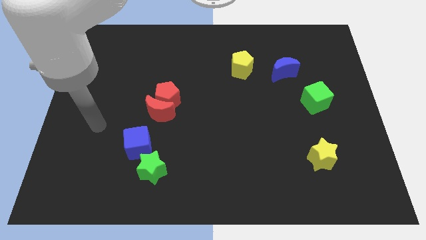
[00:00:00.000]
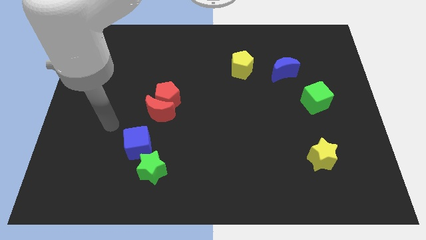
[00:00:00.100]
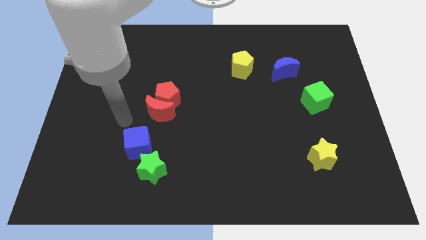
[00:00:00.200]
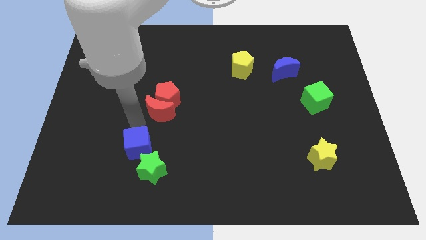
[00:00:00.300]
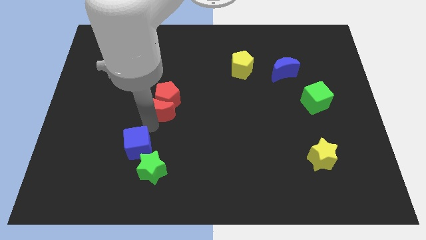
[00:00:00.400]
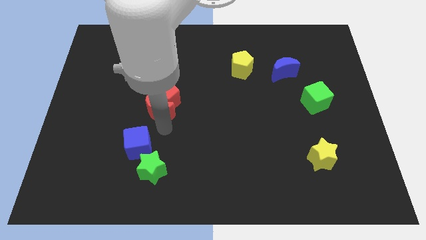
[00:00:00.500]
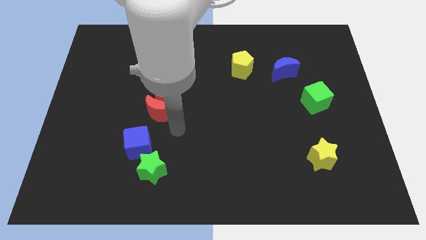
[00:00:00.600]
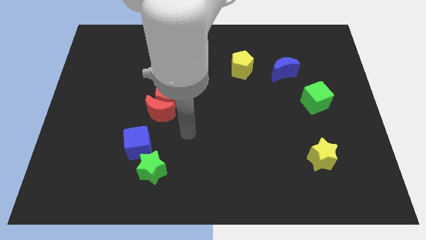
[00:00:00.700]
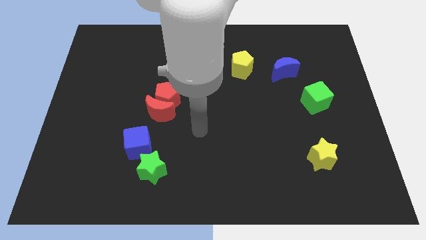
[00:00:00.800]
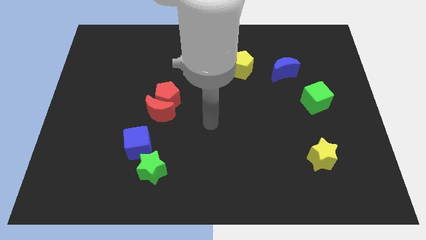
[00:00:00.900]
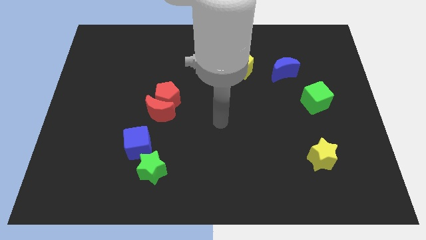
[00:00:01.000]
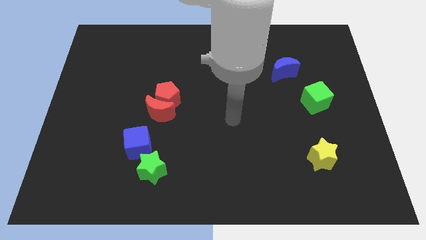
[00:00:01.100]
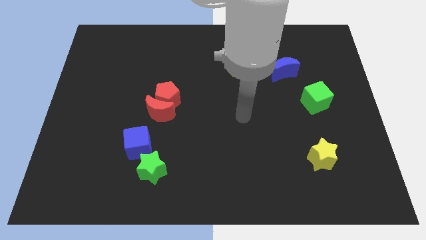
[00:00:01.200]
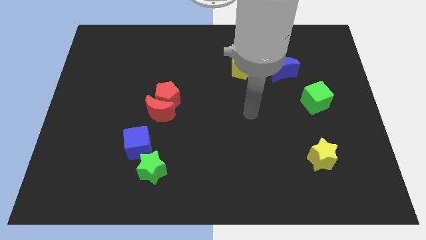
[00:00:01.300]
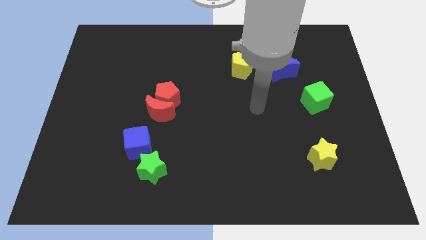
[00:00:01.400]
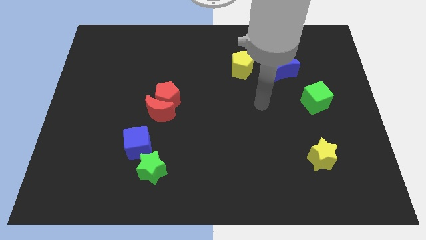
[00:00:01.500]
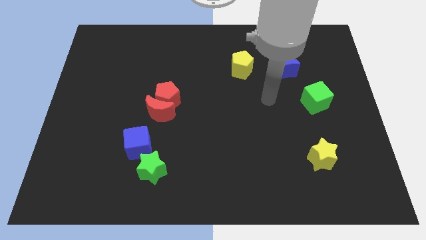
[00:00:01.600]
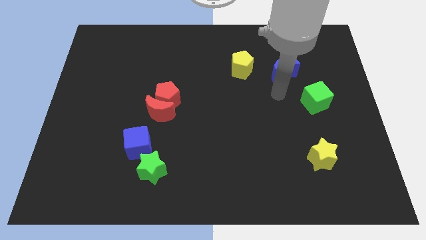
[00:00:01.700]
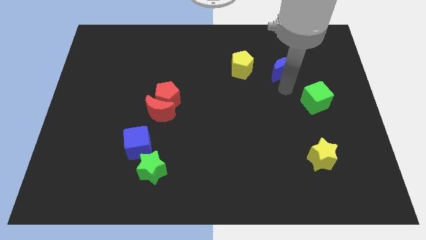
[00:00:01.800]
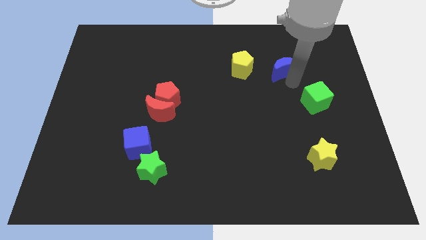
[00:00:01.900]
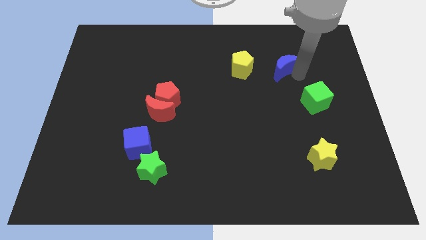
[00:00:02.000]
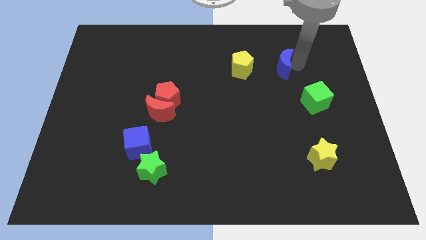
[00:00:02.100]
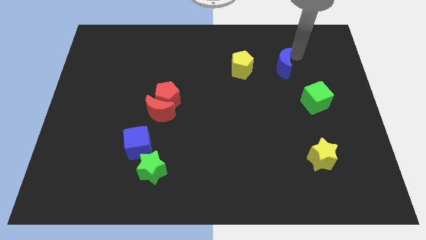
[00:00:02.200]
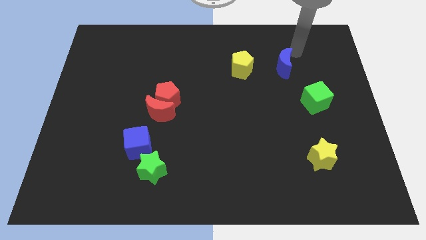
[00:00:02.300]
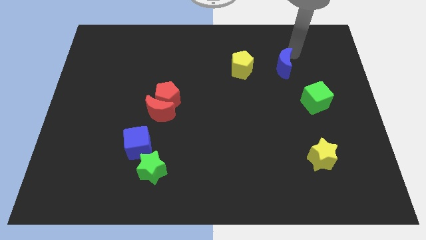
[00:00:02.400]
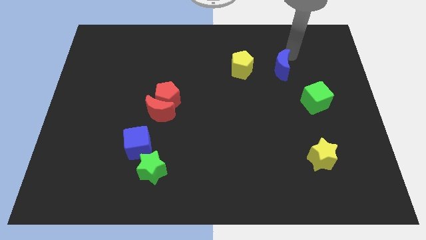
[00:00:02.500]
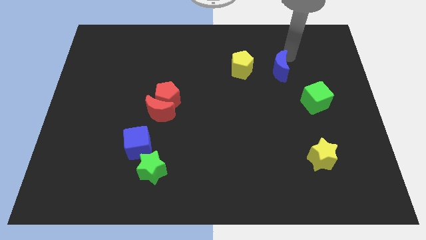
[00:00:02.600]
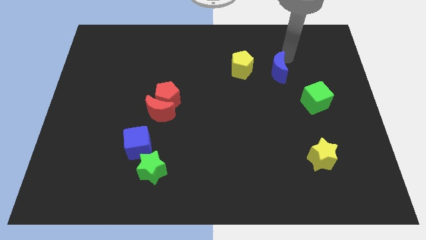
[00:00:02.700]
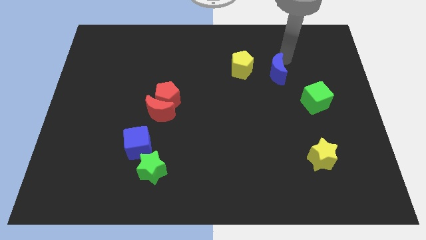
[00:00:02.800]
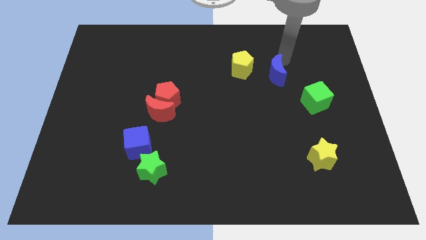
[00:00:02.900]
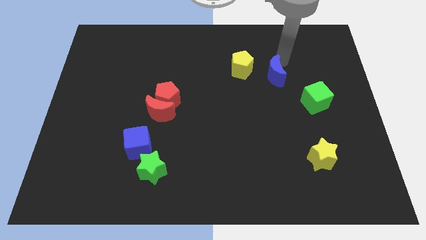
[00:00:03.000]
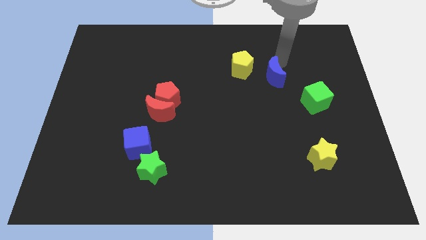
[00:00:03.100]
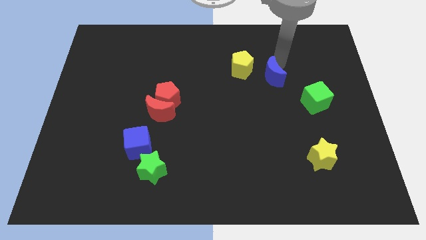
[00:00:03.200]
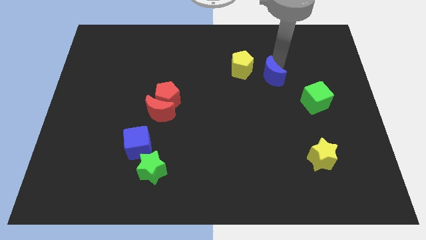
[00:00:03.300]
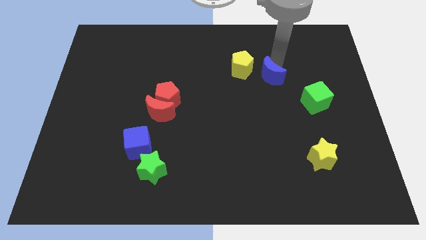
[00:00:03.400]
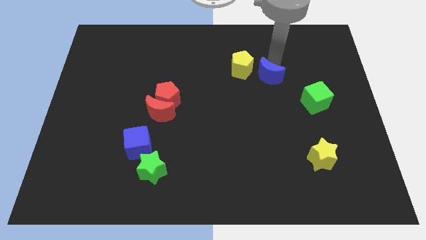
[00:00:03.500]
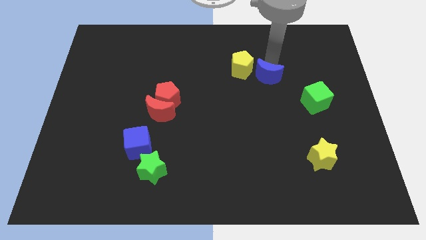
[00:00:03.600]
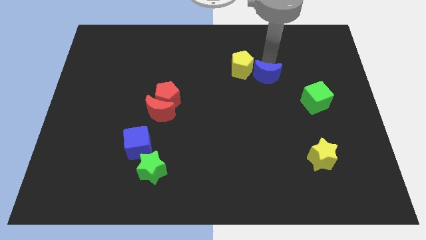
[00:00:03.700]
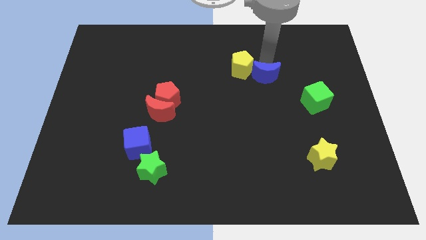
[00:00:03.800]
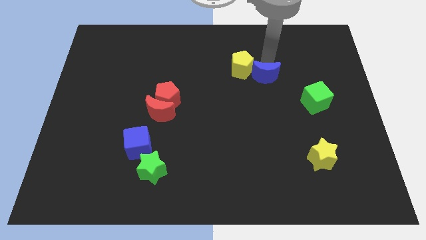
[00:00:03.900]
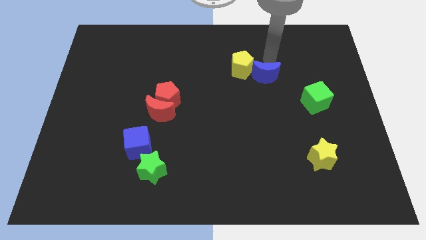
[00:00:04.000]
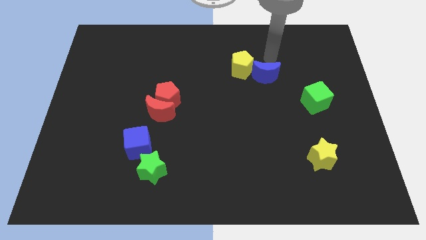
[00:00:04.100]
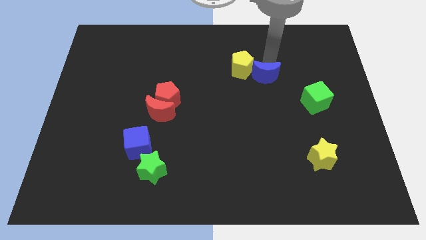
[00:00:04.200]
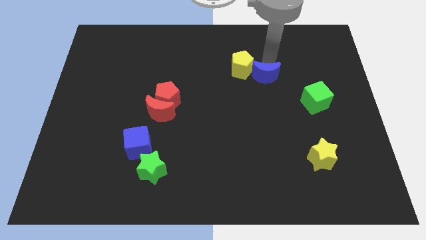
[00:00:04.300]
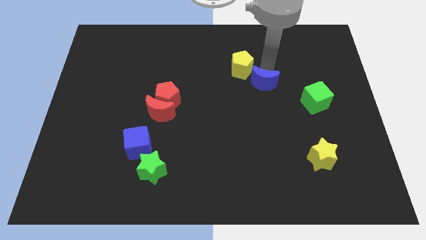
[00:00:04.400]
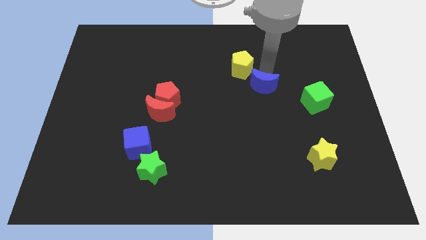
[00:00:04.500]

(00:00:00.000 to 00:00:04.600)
push the blue moon a little down and then left

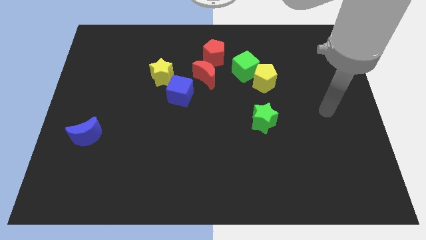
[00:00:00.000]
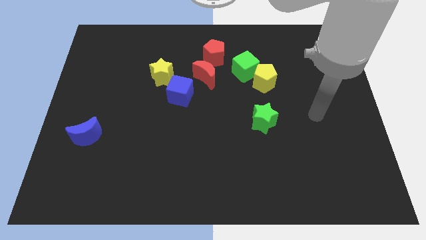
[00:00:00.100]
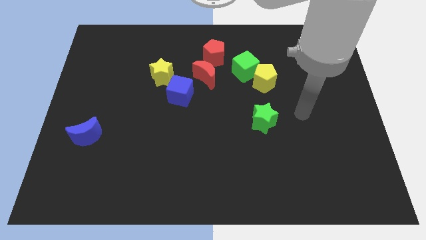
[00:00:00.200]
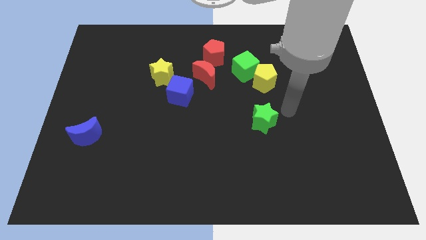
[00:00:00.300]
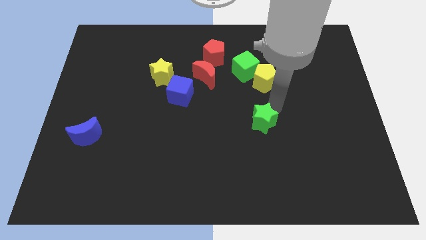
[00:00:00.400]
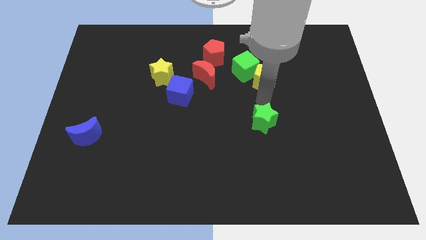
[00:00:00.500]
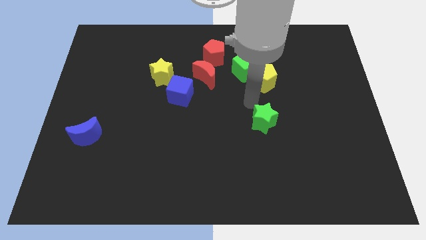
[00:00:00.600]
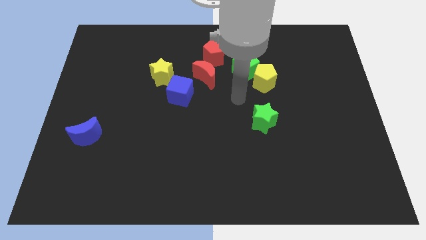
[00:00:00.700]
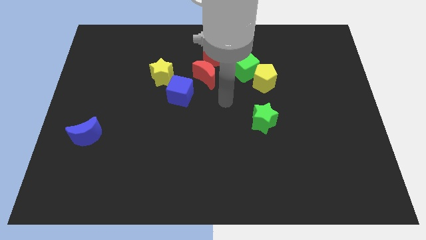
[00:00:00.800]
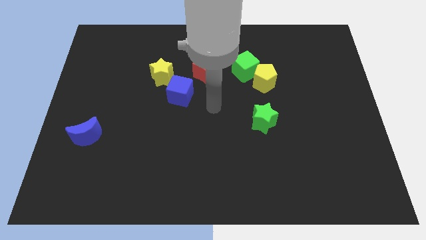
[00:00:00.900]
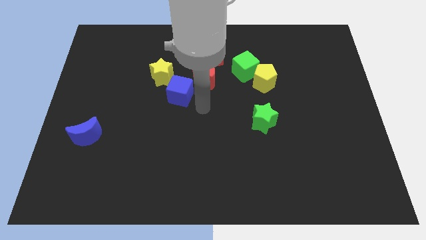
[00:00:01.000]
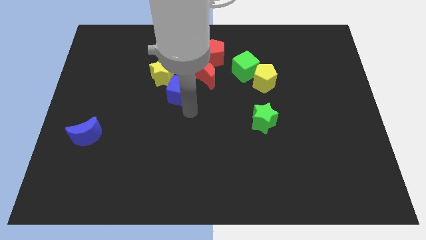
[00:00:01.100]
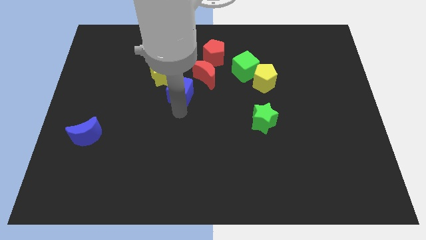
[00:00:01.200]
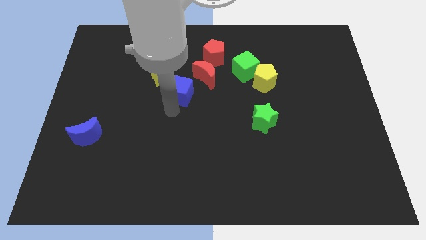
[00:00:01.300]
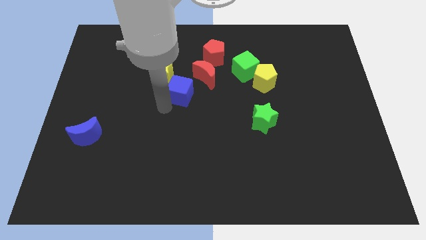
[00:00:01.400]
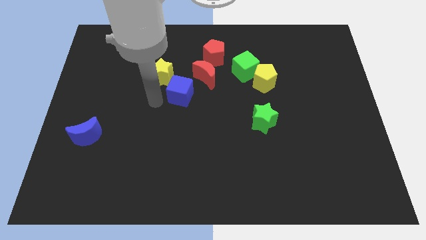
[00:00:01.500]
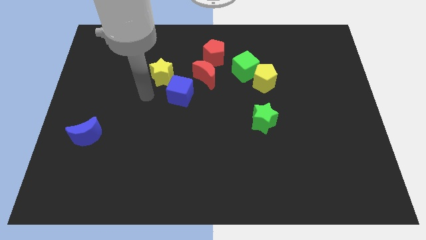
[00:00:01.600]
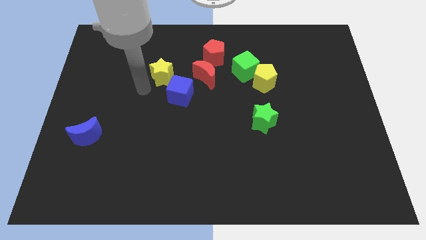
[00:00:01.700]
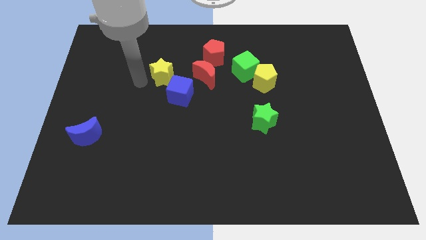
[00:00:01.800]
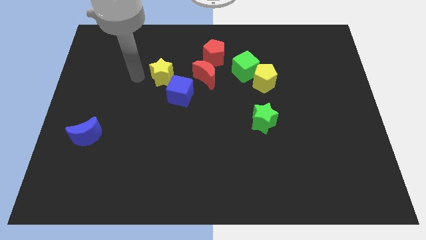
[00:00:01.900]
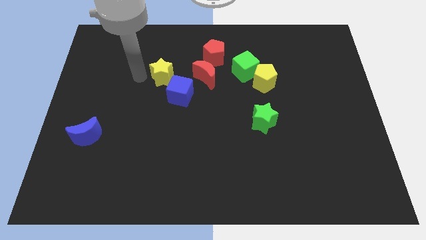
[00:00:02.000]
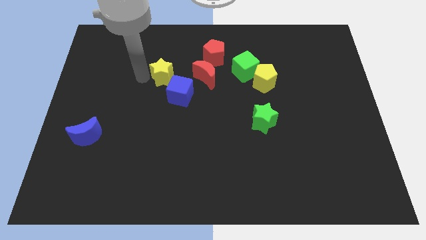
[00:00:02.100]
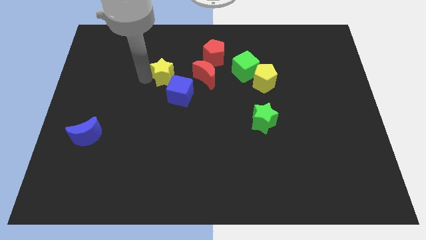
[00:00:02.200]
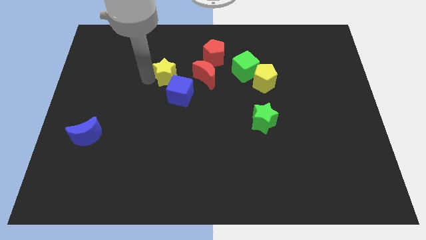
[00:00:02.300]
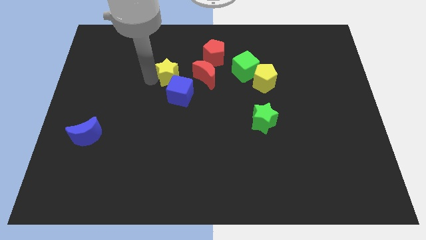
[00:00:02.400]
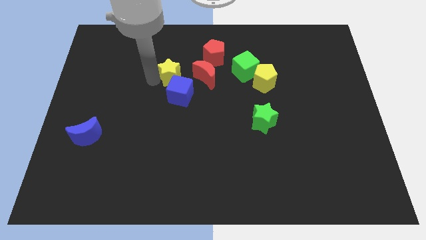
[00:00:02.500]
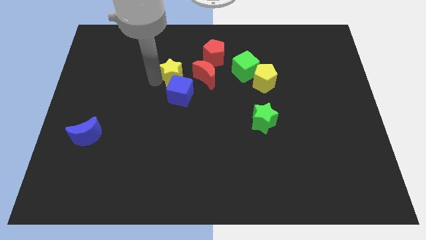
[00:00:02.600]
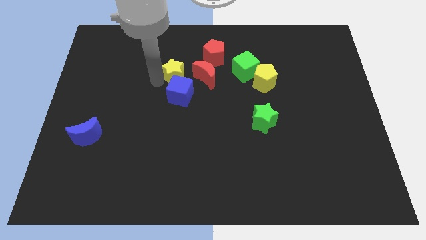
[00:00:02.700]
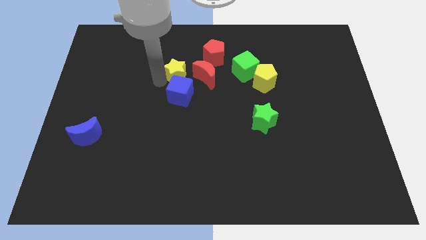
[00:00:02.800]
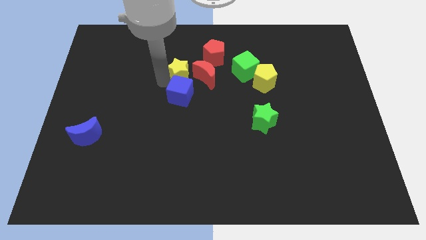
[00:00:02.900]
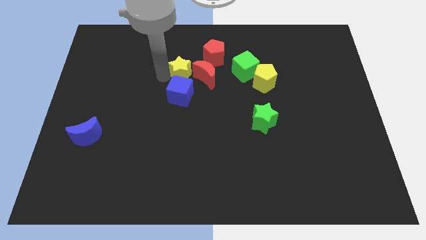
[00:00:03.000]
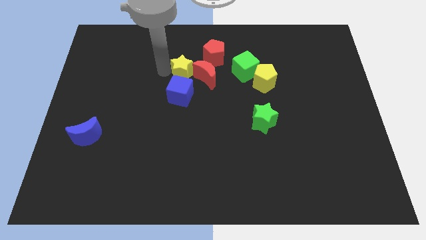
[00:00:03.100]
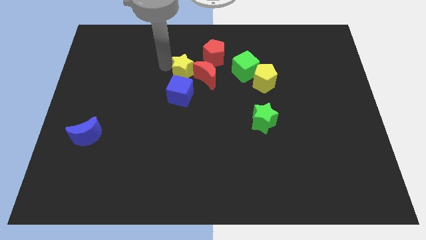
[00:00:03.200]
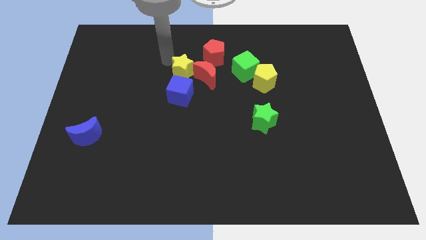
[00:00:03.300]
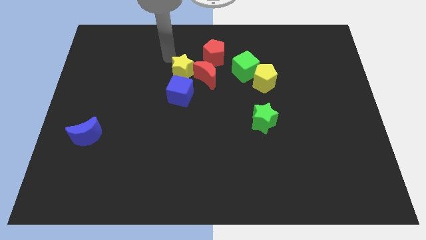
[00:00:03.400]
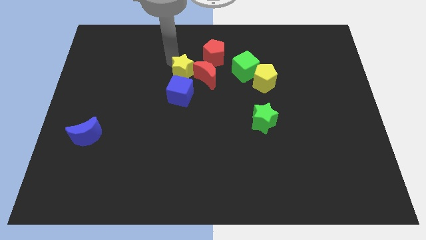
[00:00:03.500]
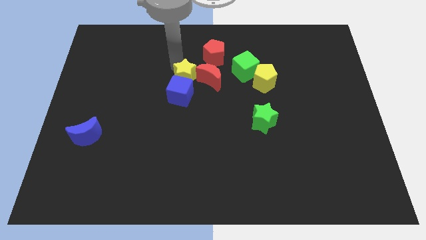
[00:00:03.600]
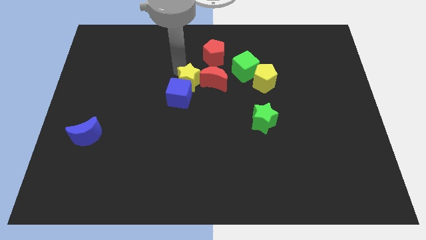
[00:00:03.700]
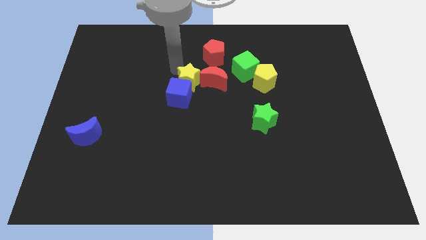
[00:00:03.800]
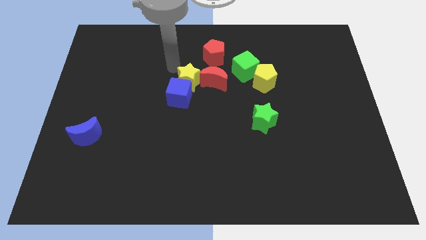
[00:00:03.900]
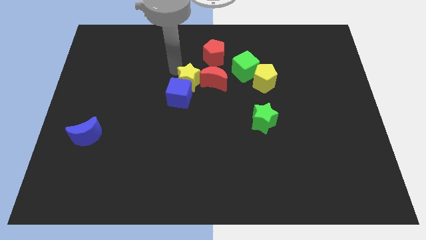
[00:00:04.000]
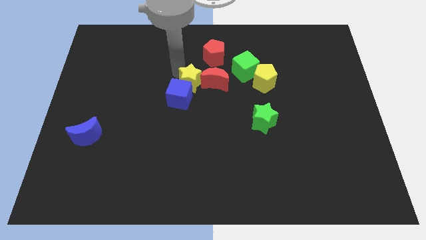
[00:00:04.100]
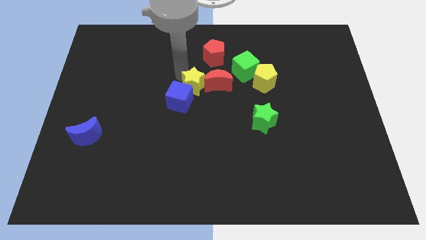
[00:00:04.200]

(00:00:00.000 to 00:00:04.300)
push the yellow star diagonally downwards and to the right somewhat
